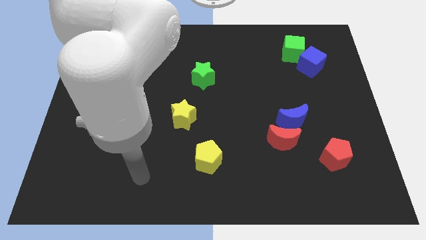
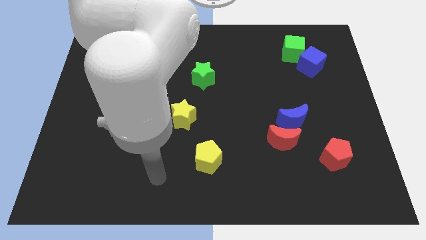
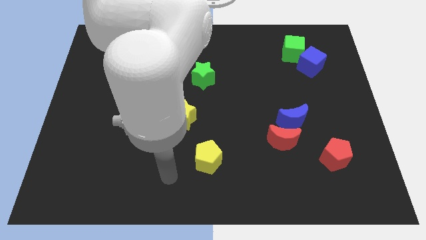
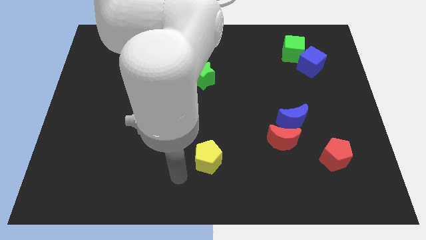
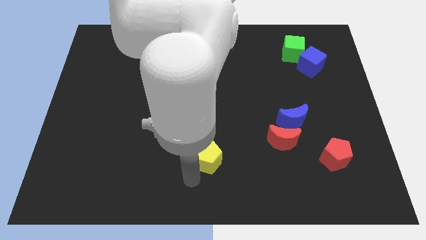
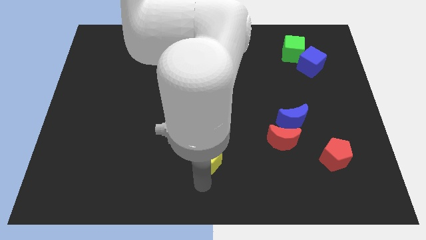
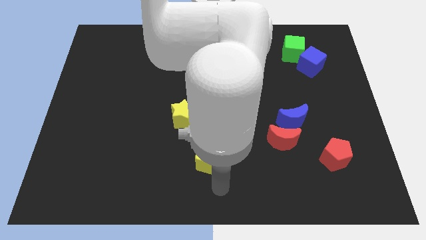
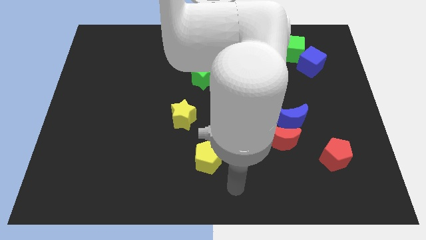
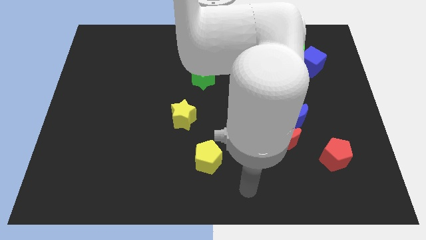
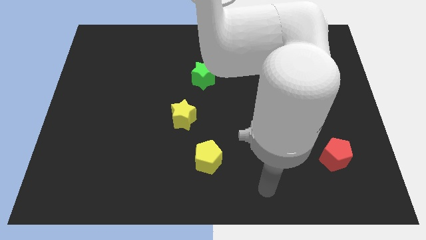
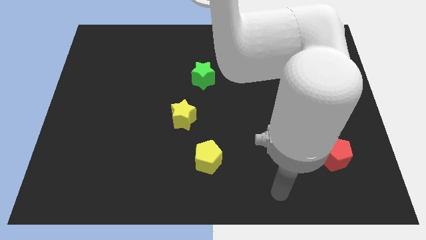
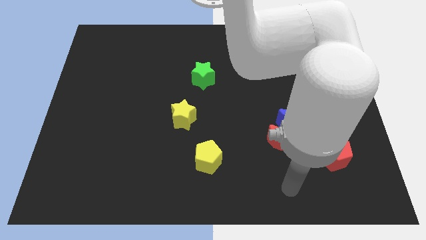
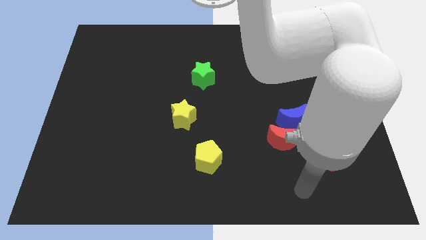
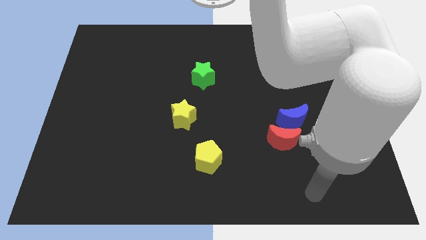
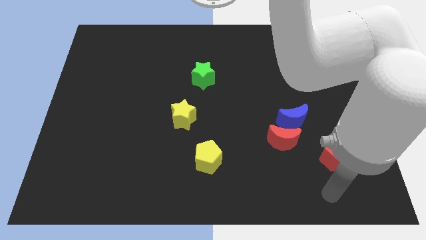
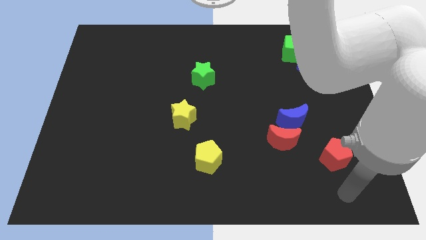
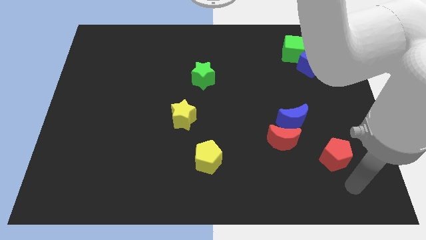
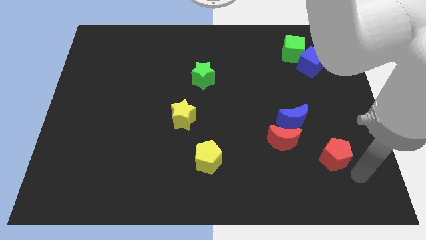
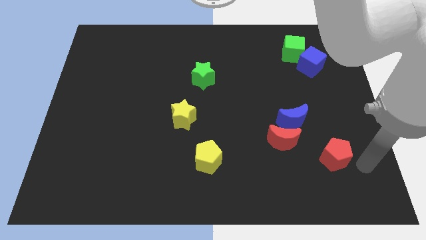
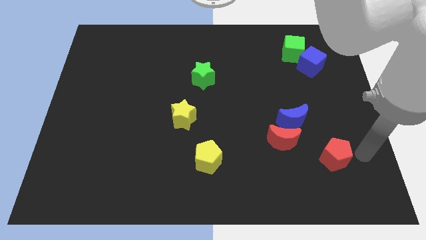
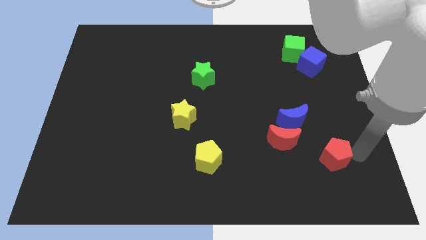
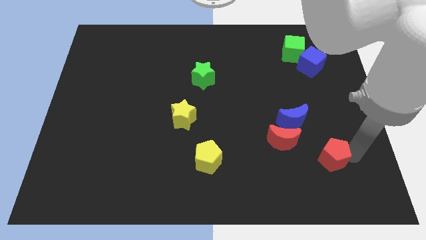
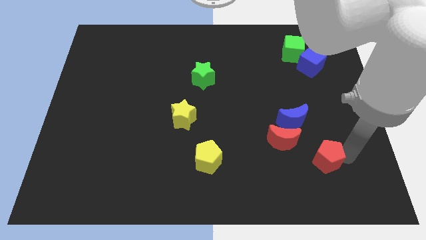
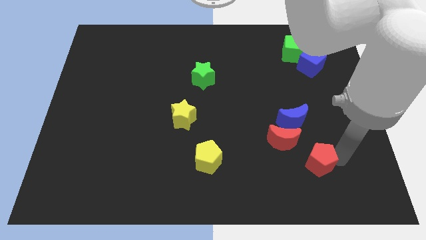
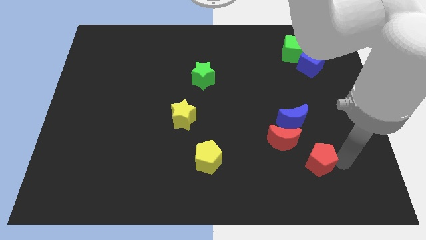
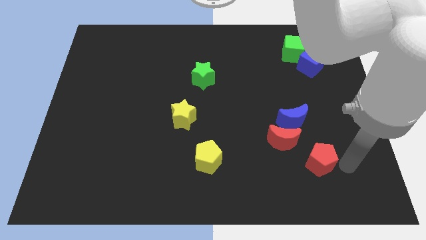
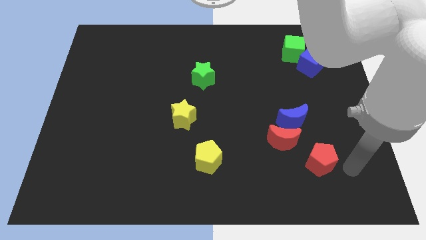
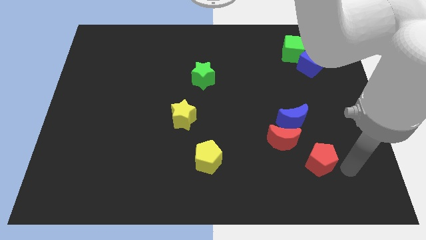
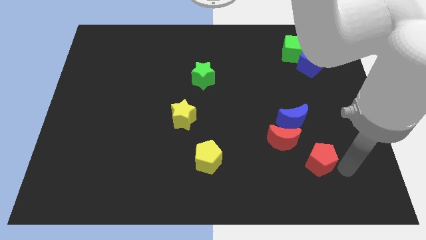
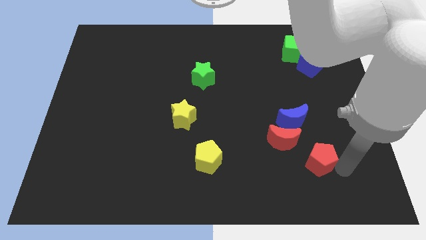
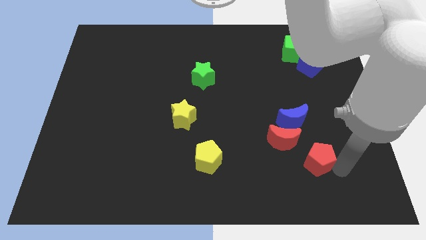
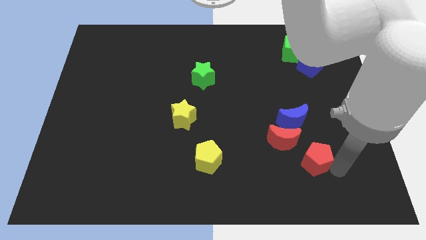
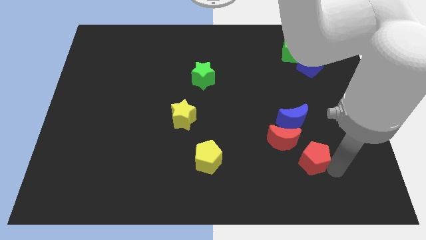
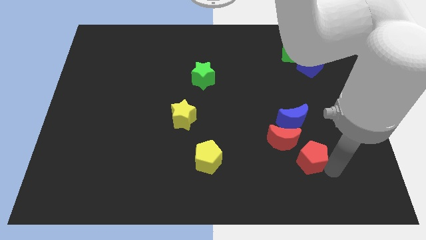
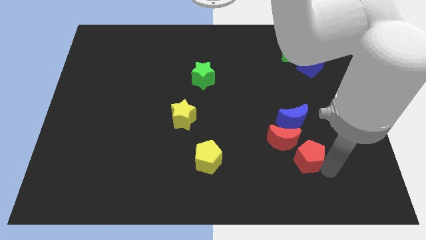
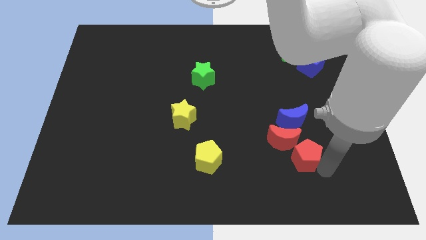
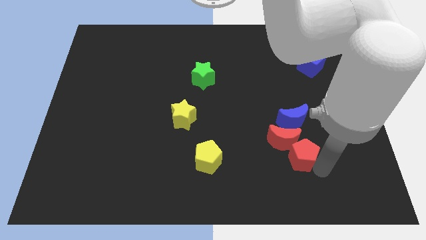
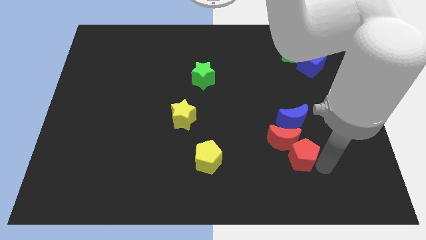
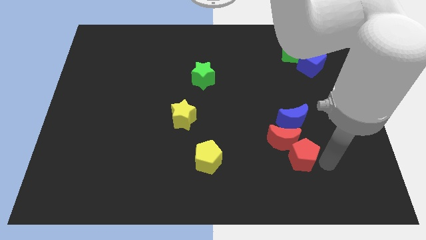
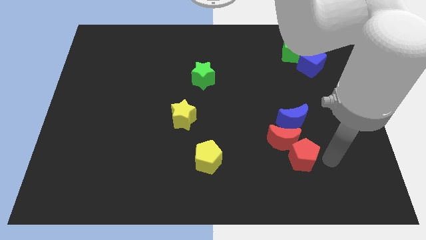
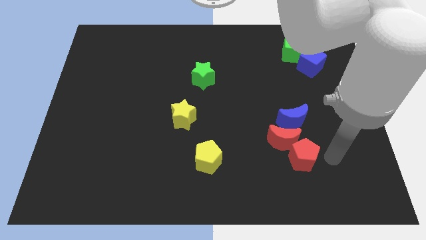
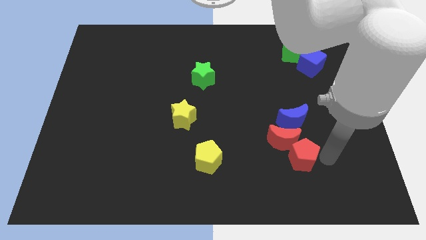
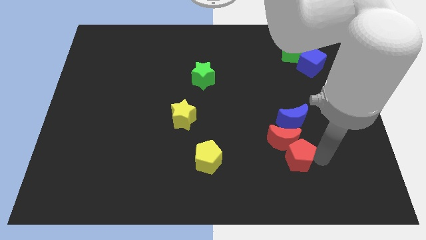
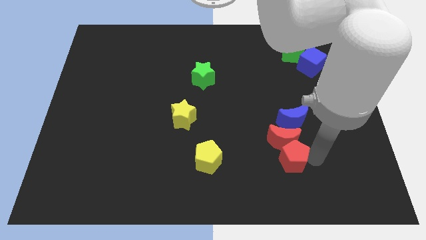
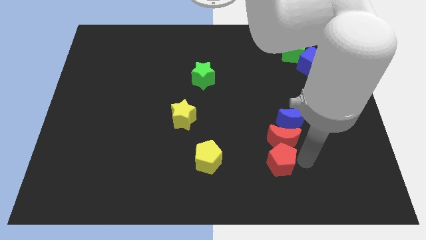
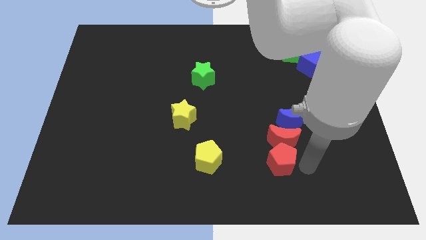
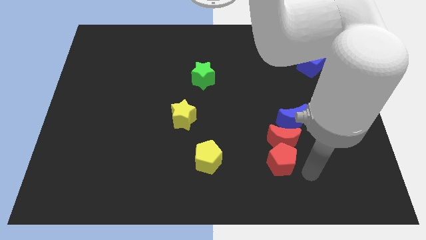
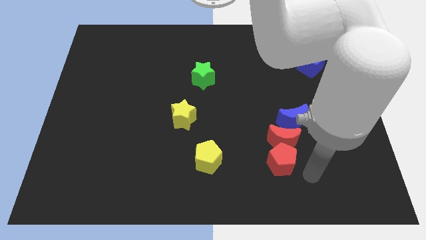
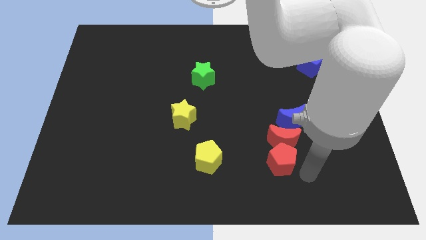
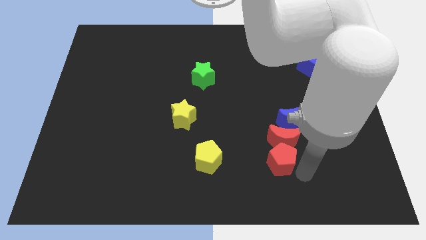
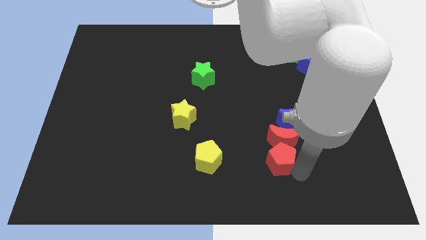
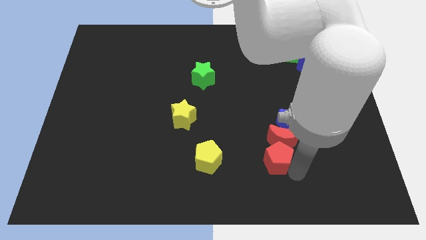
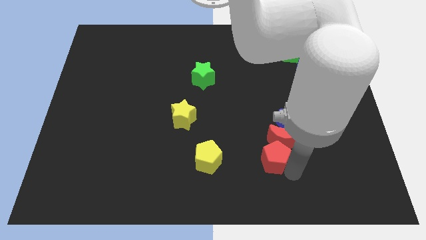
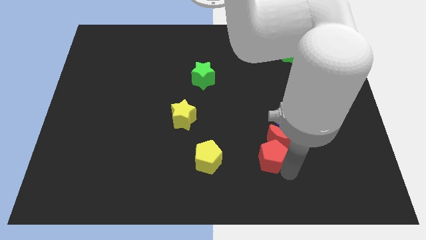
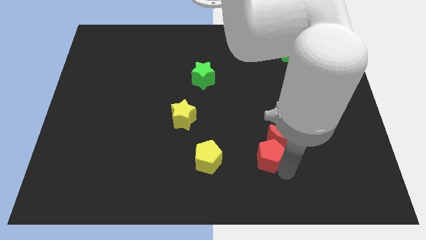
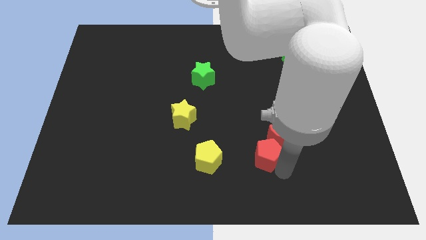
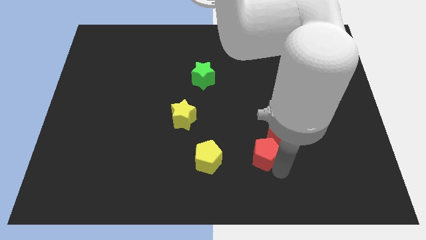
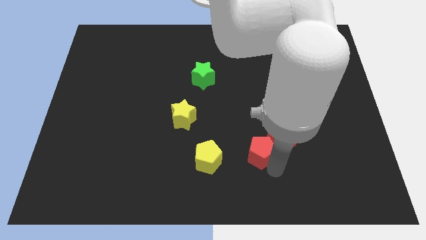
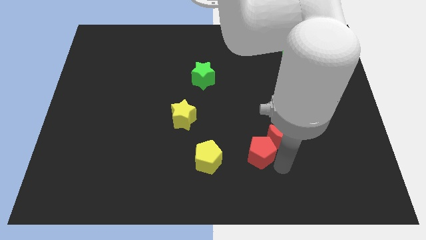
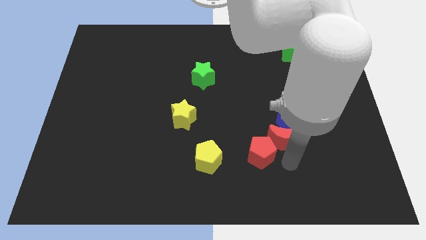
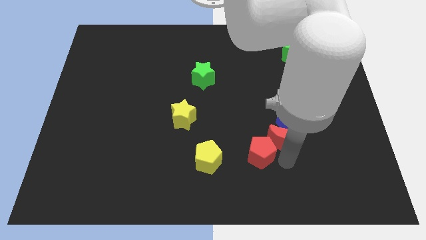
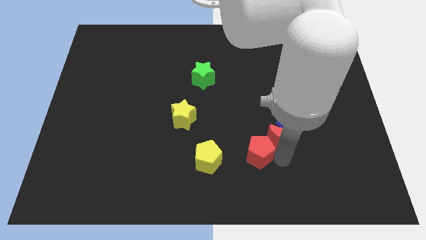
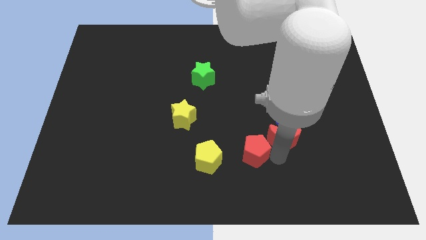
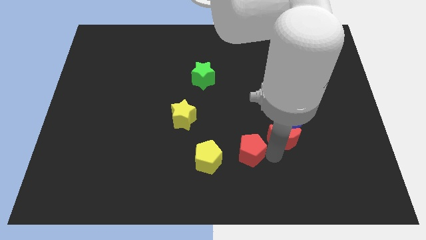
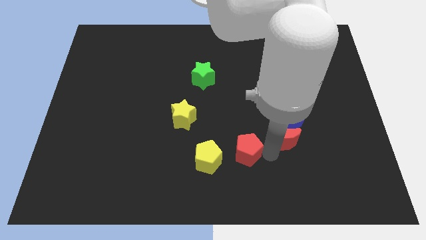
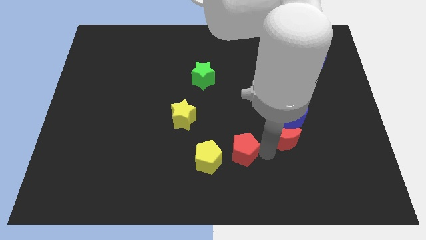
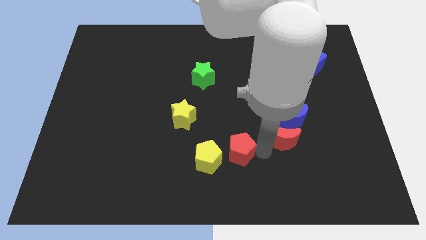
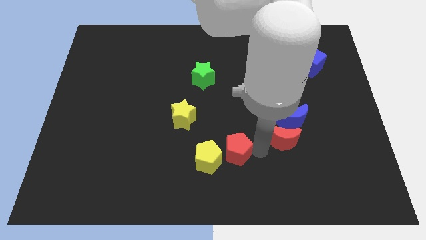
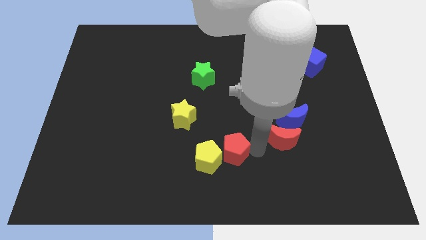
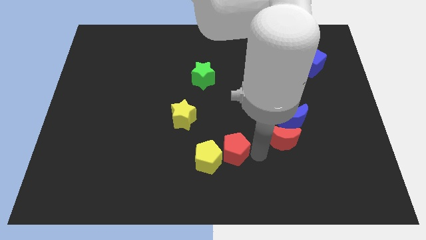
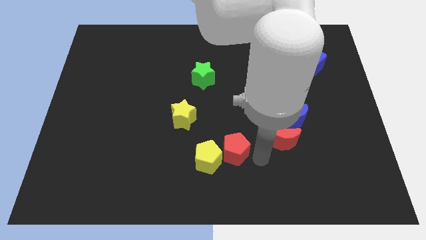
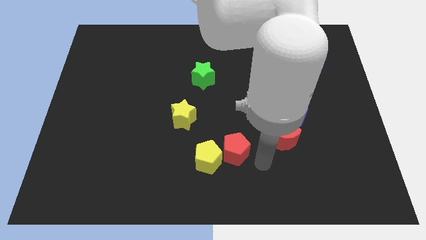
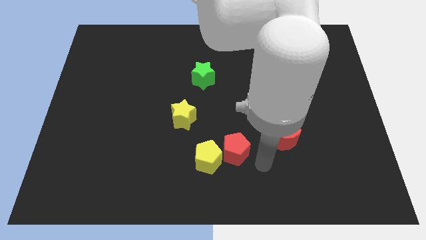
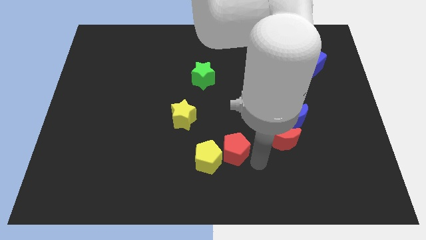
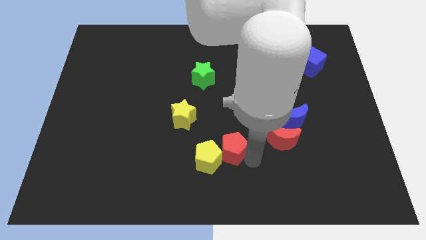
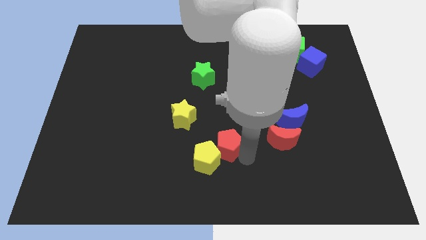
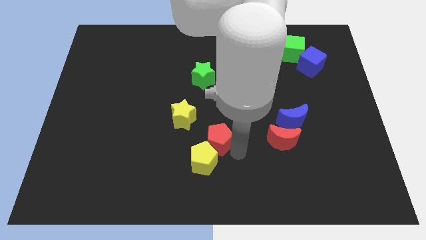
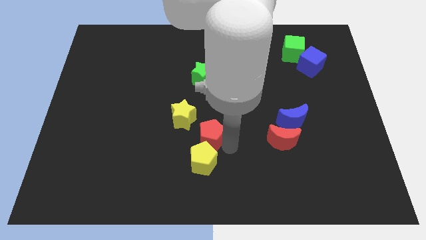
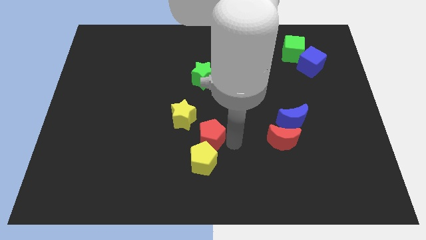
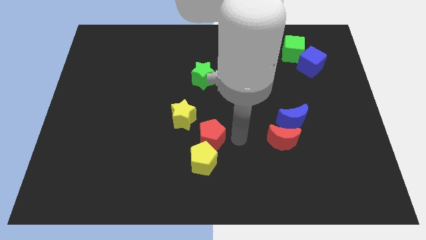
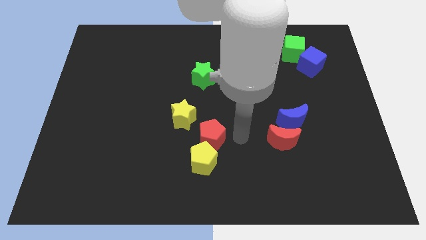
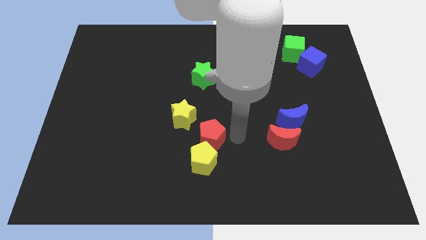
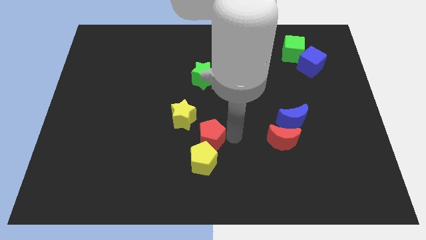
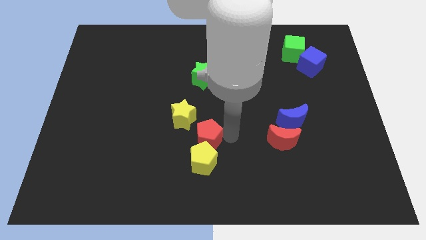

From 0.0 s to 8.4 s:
move the red pentagon to the top left side of the yellow pentagon
